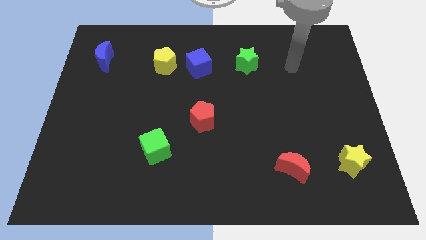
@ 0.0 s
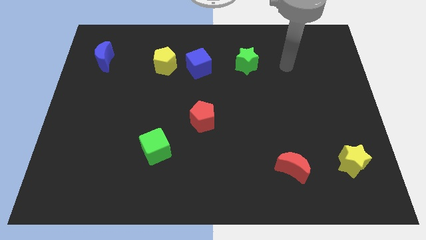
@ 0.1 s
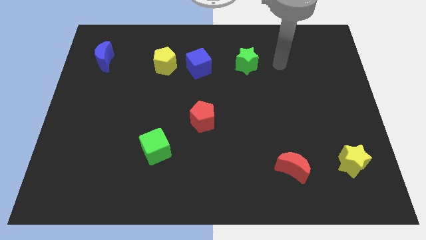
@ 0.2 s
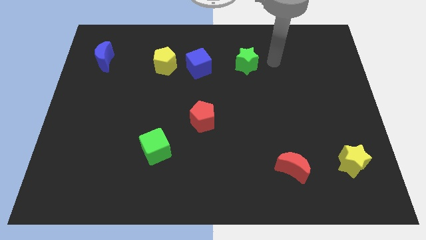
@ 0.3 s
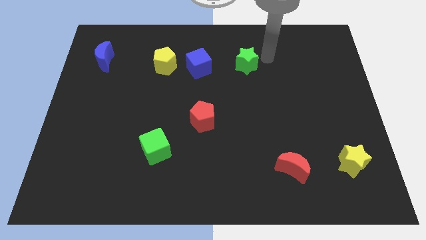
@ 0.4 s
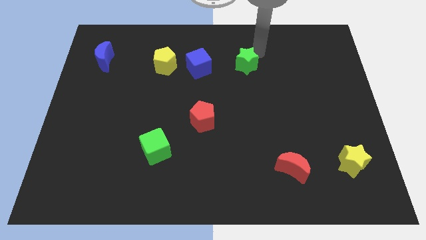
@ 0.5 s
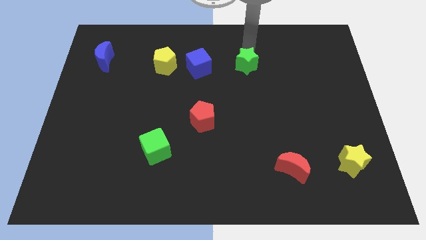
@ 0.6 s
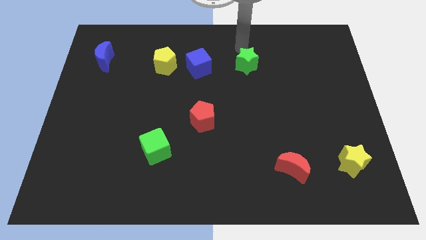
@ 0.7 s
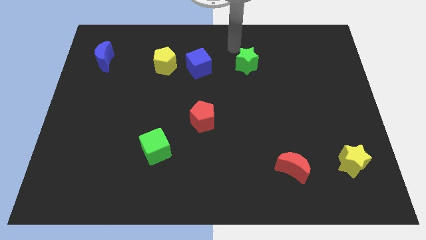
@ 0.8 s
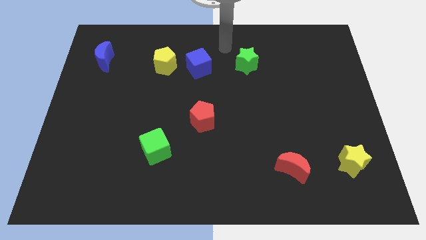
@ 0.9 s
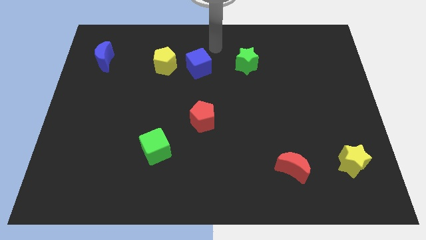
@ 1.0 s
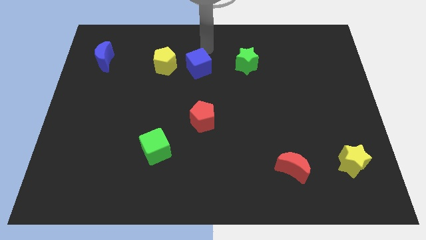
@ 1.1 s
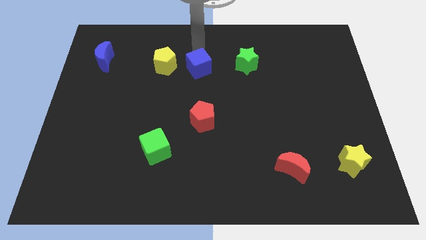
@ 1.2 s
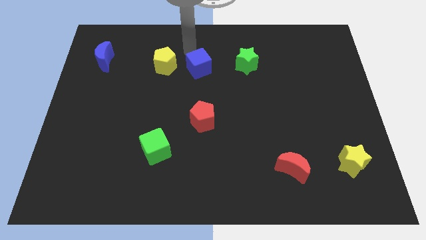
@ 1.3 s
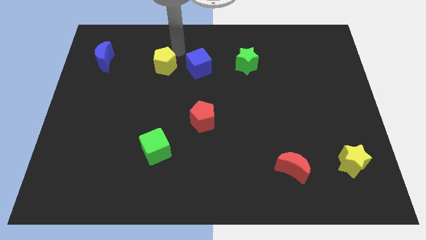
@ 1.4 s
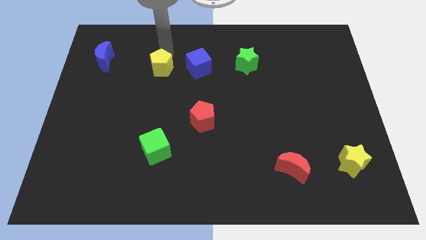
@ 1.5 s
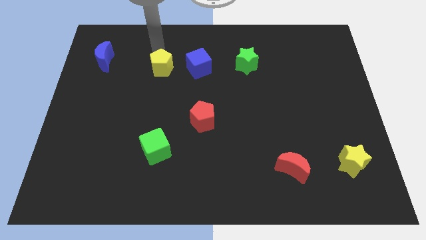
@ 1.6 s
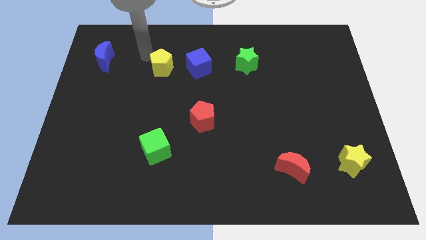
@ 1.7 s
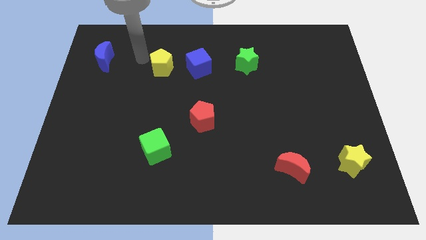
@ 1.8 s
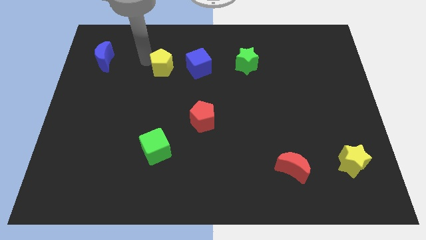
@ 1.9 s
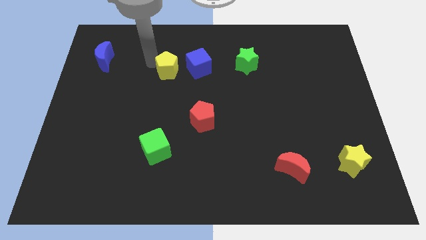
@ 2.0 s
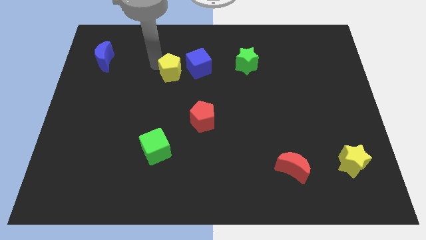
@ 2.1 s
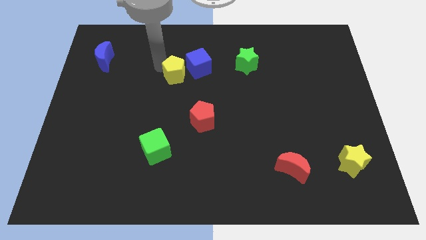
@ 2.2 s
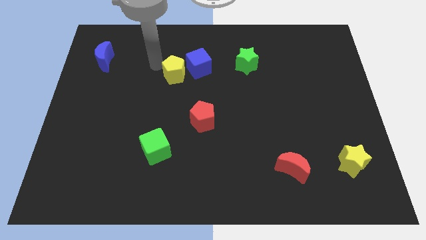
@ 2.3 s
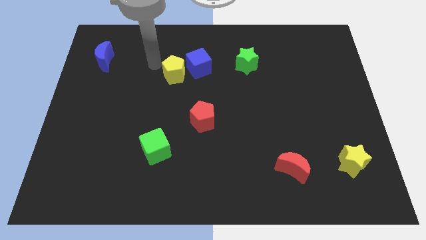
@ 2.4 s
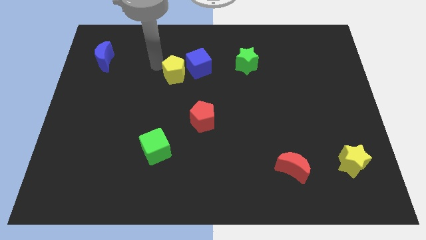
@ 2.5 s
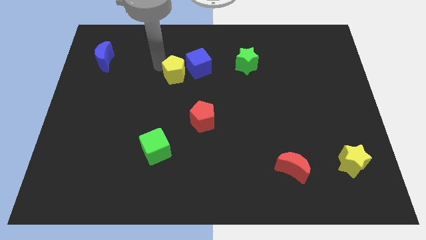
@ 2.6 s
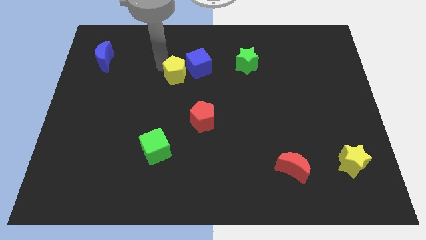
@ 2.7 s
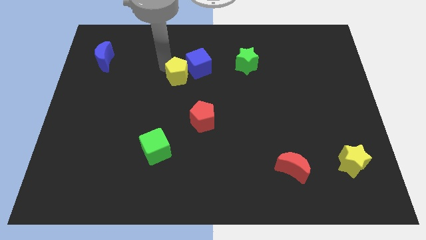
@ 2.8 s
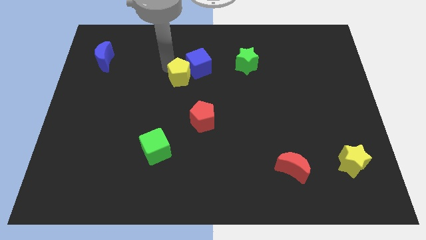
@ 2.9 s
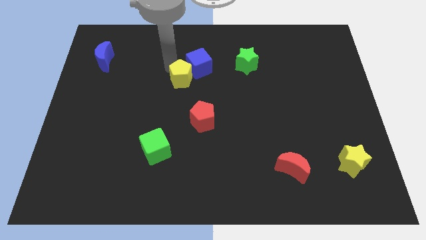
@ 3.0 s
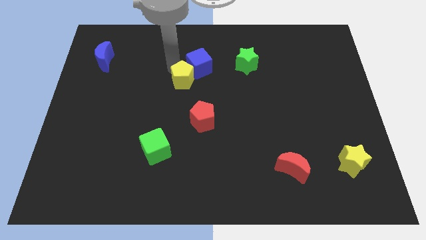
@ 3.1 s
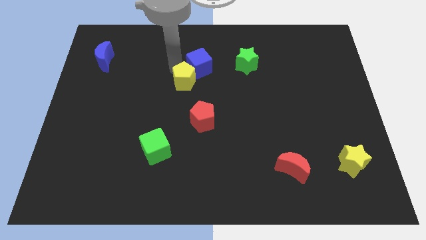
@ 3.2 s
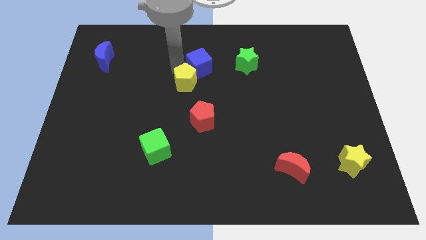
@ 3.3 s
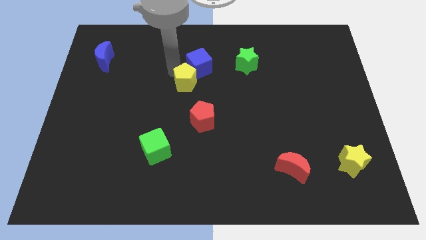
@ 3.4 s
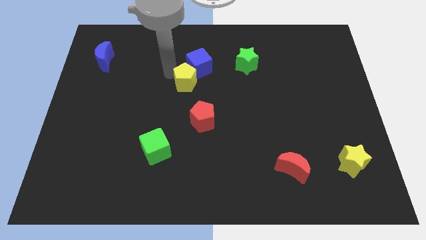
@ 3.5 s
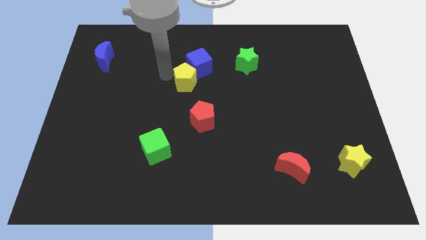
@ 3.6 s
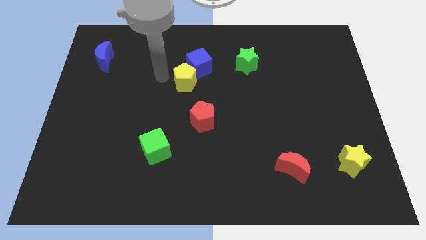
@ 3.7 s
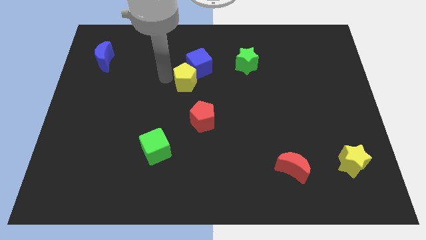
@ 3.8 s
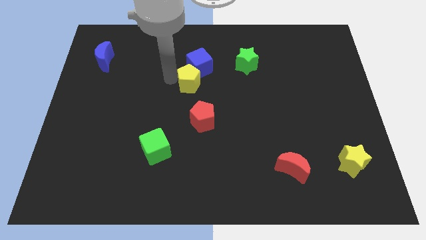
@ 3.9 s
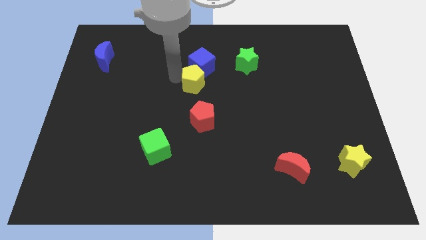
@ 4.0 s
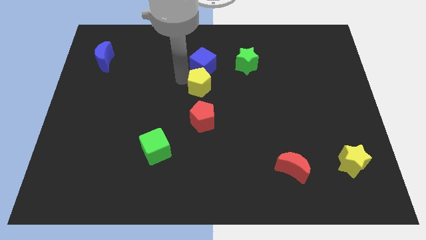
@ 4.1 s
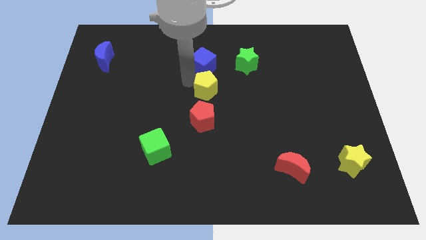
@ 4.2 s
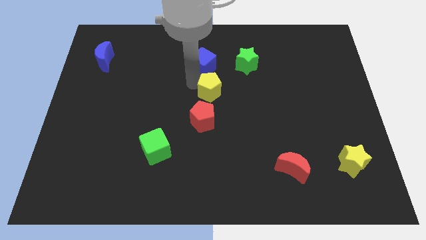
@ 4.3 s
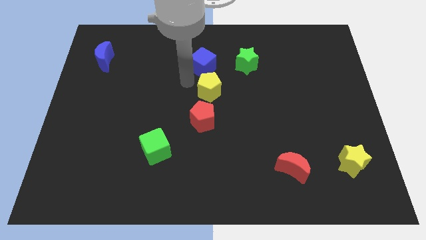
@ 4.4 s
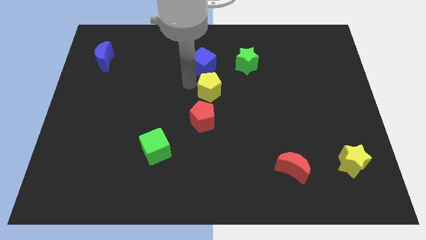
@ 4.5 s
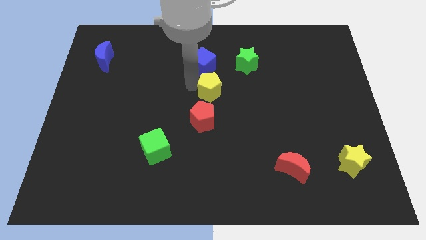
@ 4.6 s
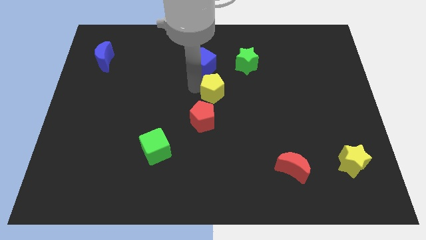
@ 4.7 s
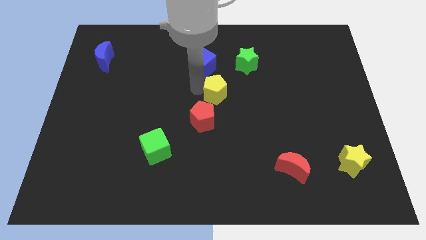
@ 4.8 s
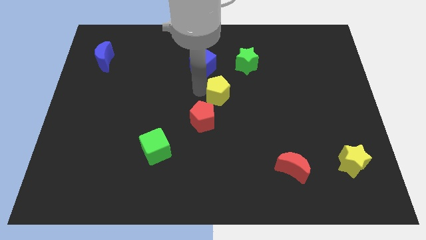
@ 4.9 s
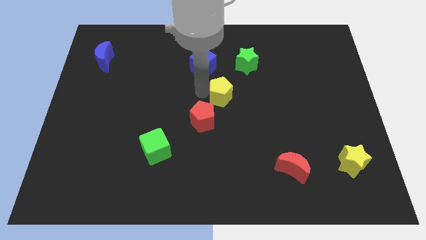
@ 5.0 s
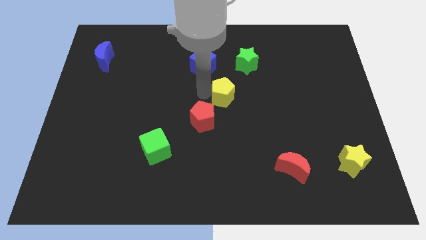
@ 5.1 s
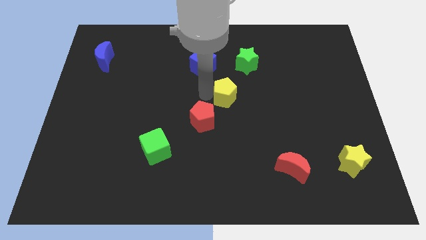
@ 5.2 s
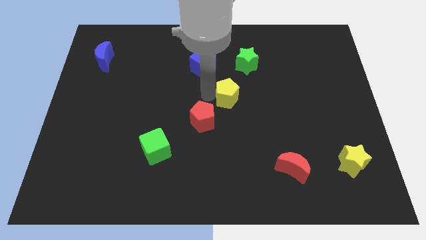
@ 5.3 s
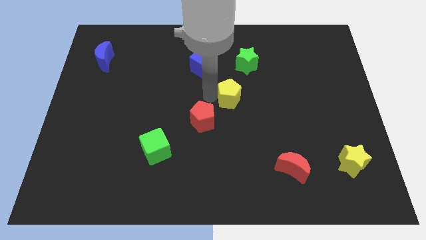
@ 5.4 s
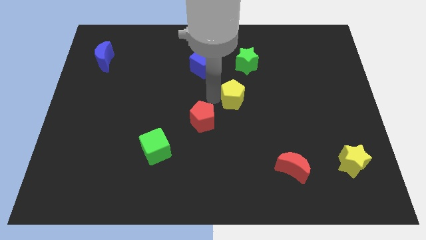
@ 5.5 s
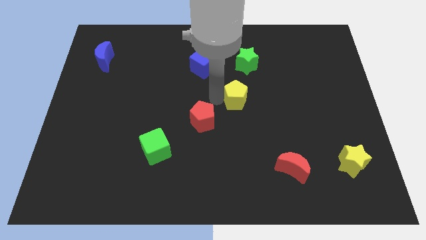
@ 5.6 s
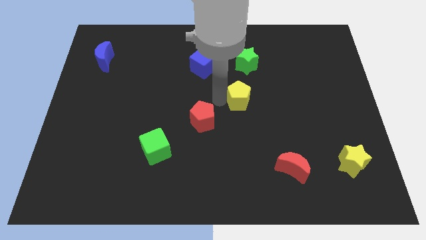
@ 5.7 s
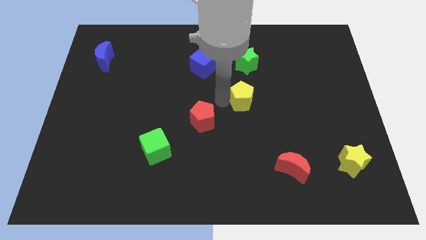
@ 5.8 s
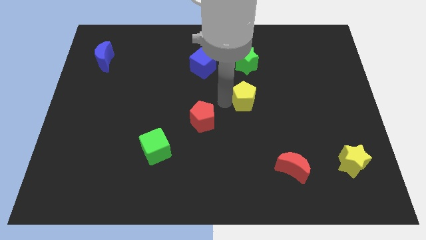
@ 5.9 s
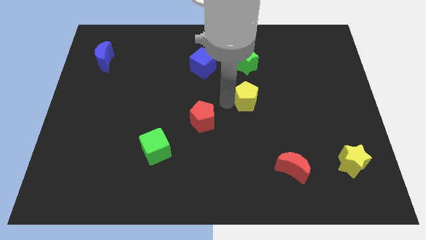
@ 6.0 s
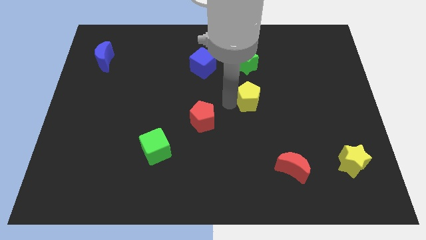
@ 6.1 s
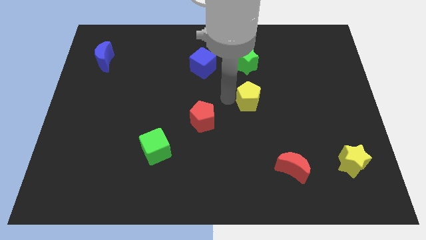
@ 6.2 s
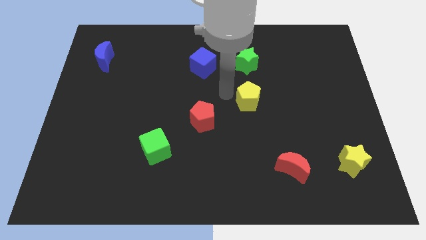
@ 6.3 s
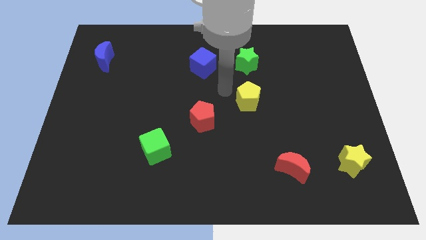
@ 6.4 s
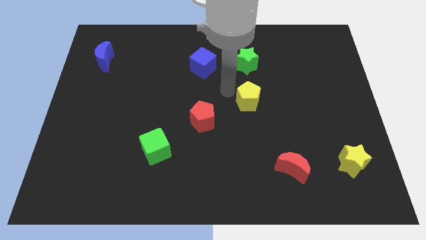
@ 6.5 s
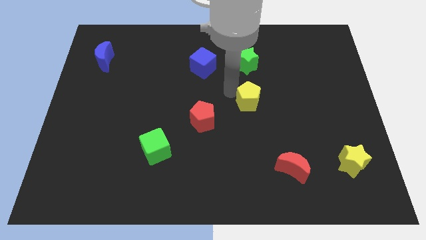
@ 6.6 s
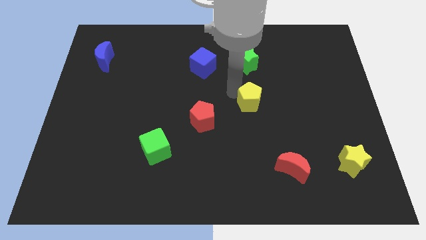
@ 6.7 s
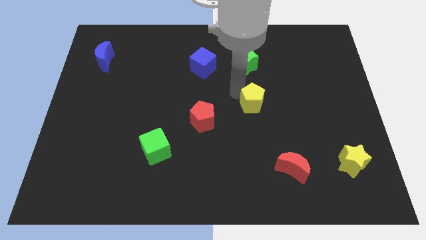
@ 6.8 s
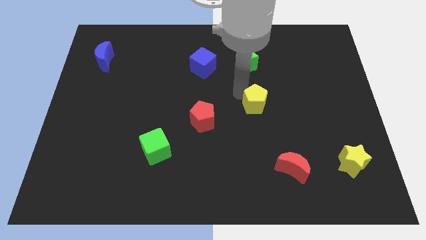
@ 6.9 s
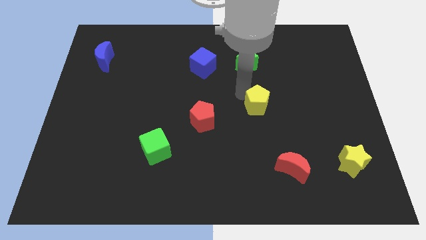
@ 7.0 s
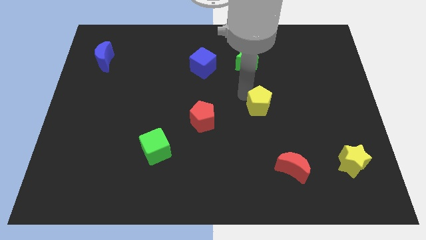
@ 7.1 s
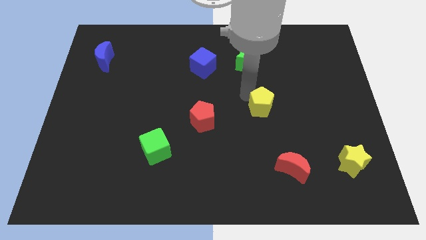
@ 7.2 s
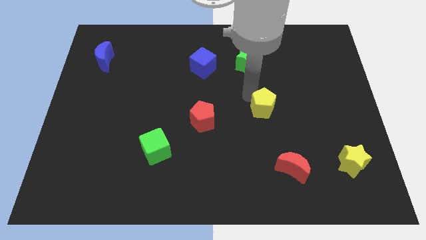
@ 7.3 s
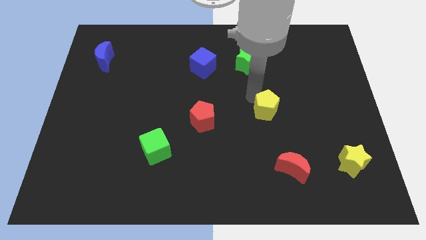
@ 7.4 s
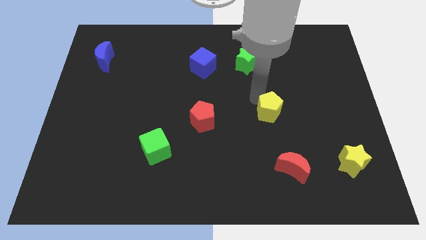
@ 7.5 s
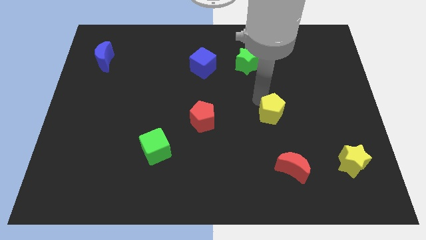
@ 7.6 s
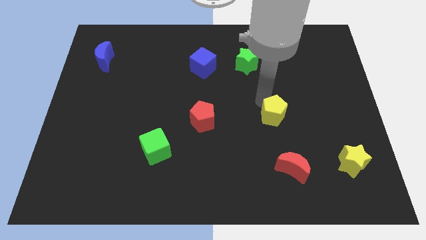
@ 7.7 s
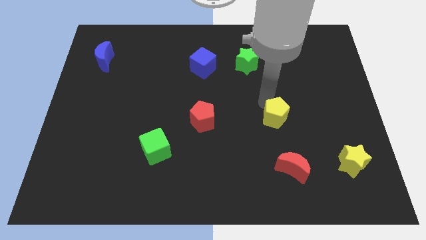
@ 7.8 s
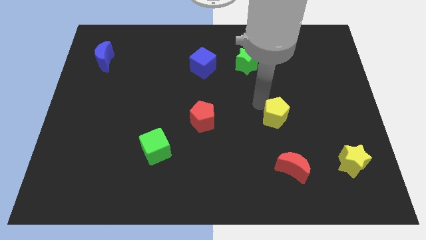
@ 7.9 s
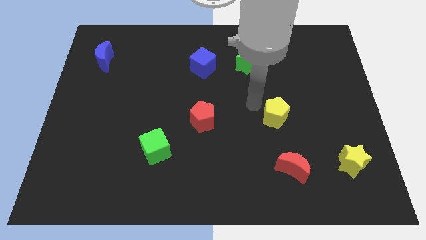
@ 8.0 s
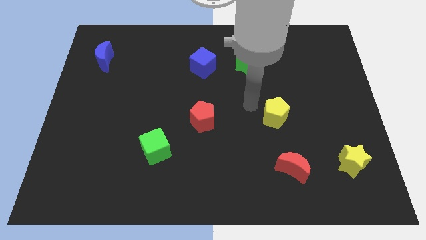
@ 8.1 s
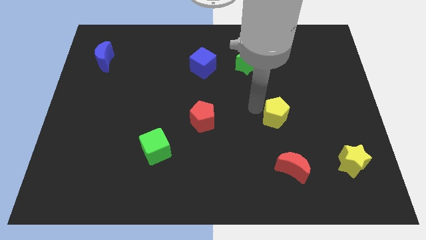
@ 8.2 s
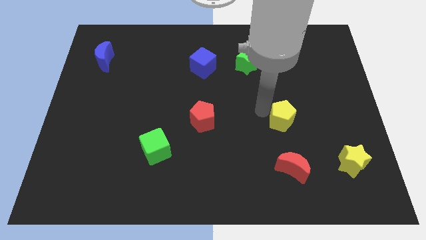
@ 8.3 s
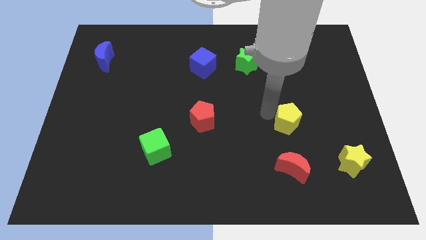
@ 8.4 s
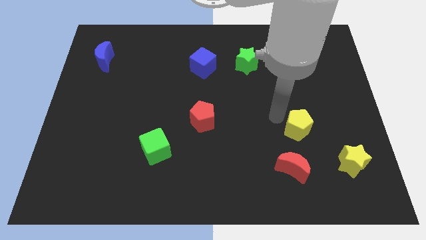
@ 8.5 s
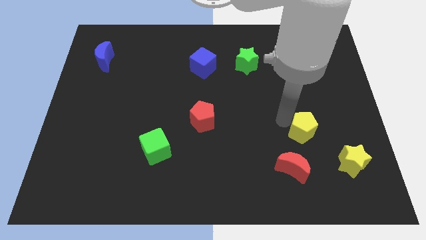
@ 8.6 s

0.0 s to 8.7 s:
move the yellow pentagon diagonally up and to the left of the yellow star
